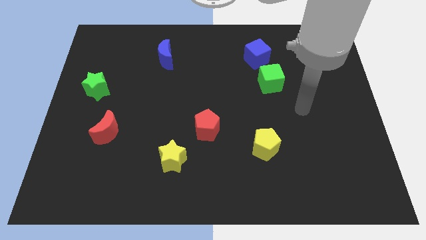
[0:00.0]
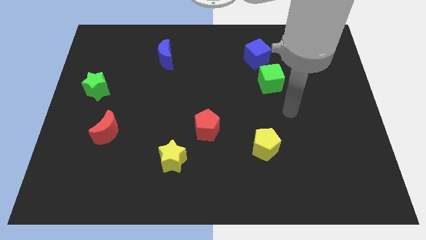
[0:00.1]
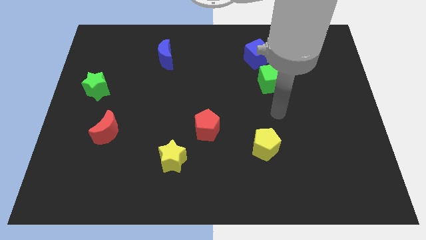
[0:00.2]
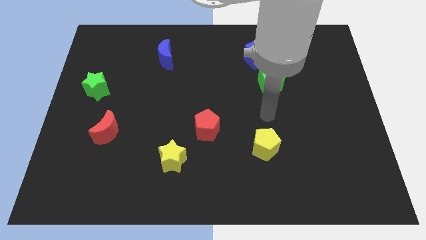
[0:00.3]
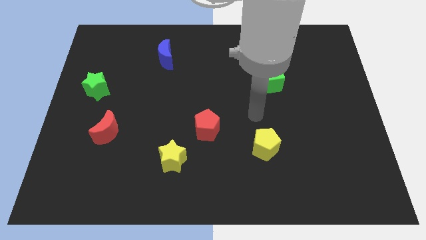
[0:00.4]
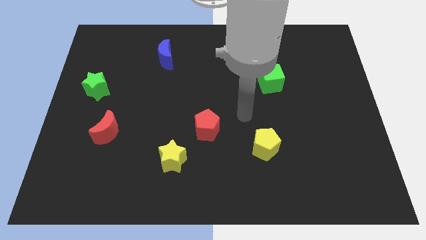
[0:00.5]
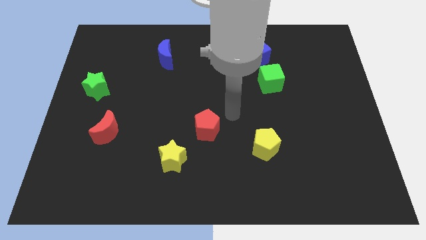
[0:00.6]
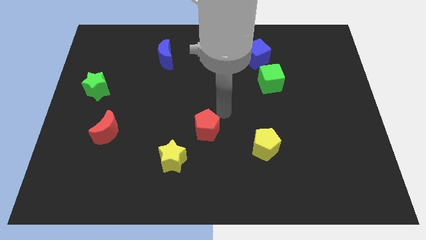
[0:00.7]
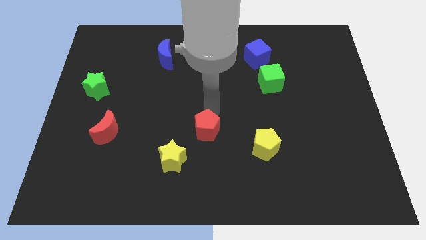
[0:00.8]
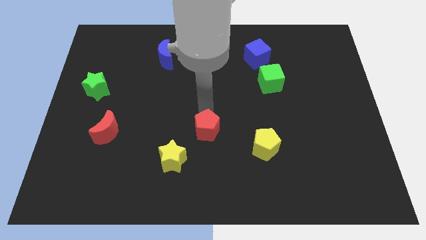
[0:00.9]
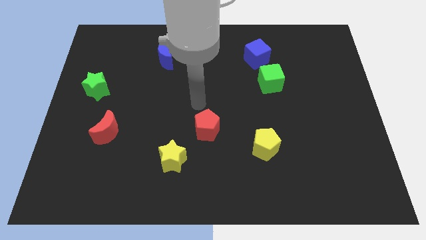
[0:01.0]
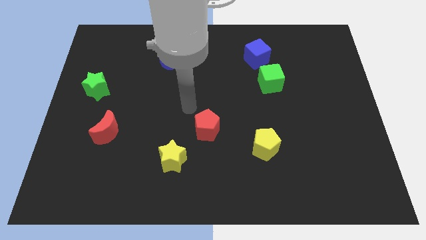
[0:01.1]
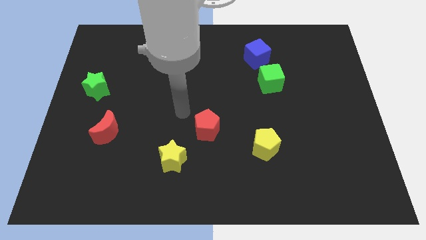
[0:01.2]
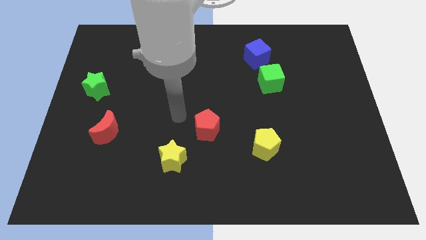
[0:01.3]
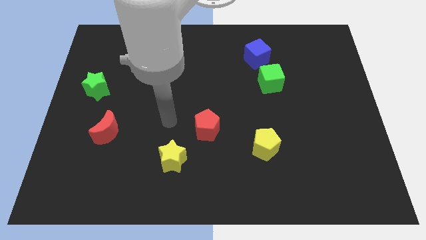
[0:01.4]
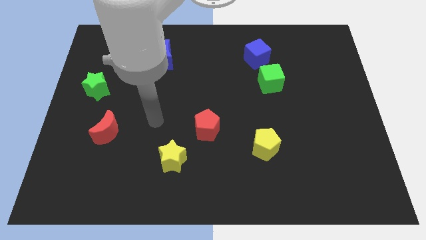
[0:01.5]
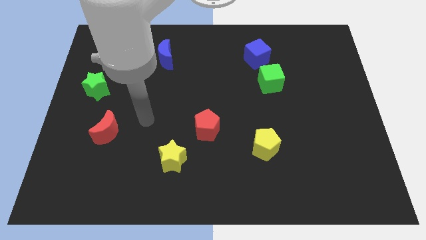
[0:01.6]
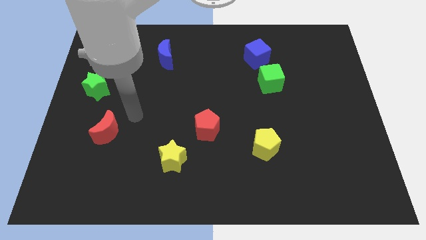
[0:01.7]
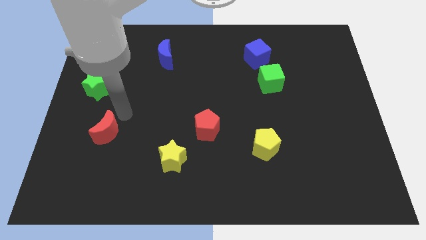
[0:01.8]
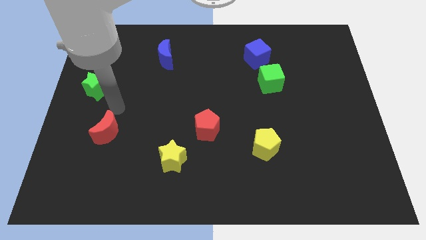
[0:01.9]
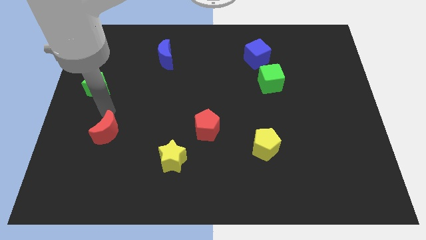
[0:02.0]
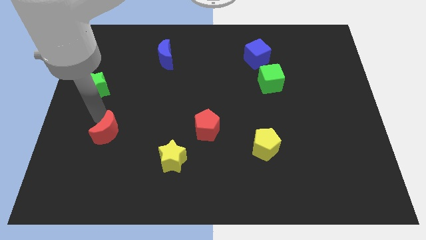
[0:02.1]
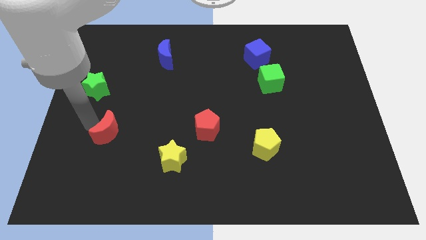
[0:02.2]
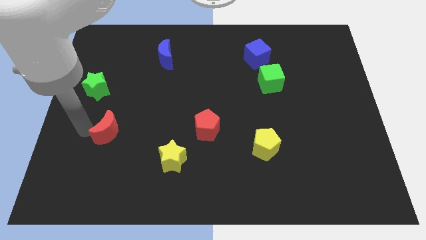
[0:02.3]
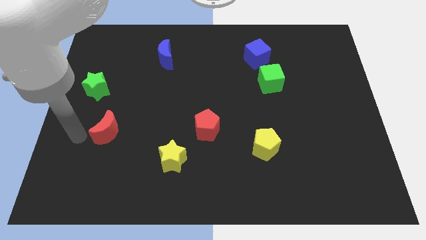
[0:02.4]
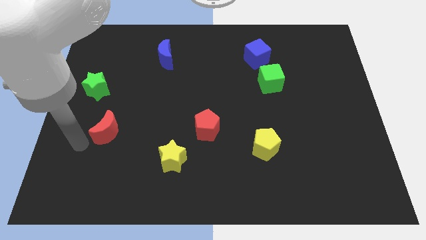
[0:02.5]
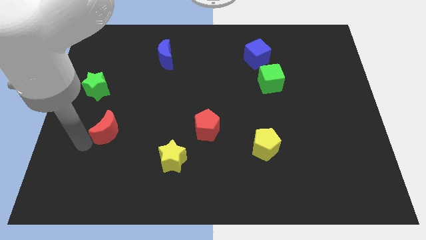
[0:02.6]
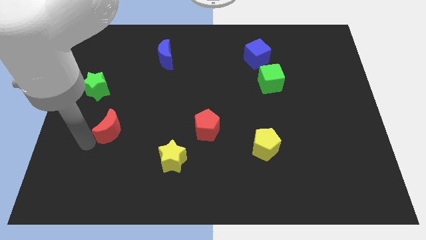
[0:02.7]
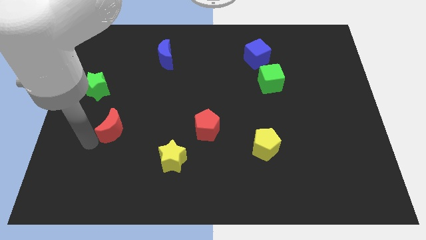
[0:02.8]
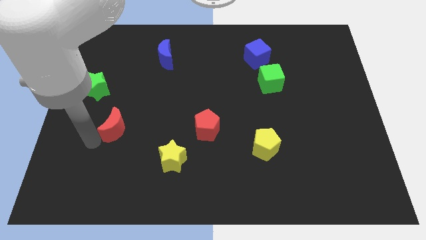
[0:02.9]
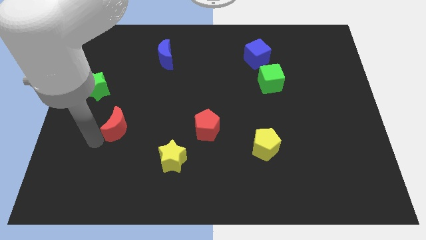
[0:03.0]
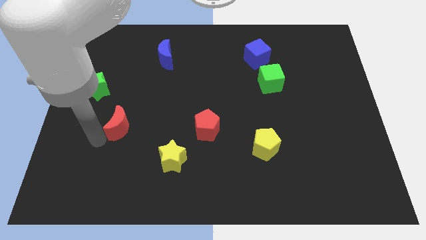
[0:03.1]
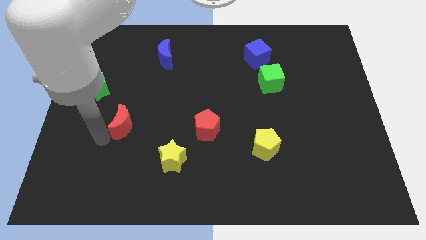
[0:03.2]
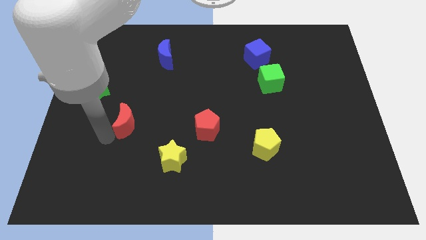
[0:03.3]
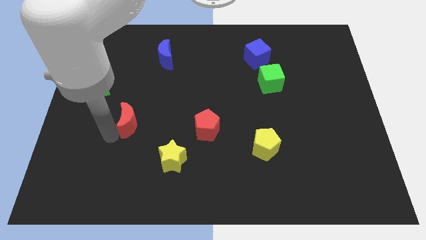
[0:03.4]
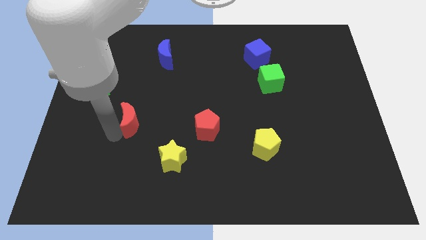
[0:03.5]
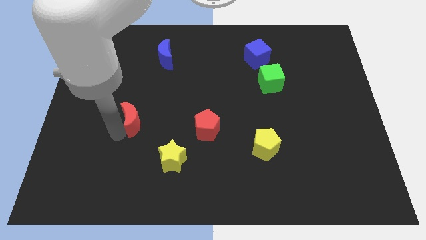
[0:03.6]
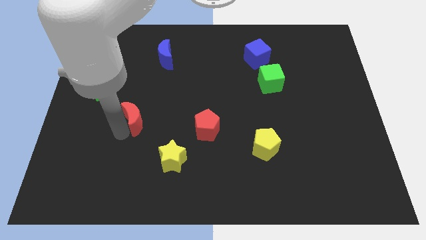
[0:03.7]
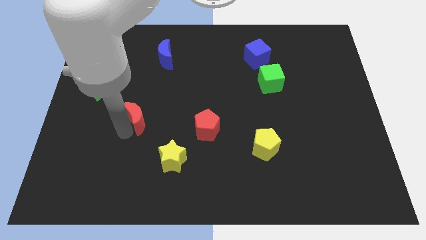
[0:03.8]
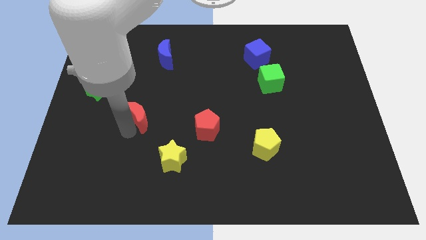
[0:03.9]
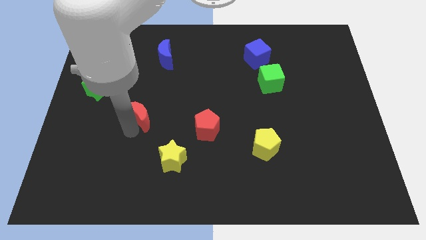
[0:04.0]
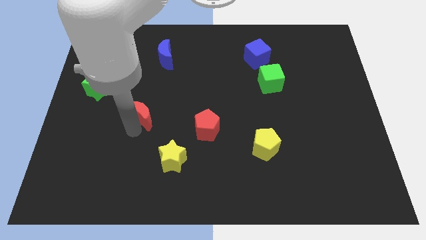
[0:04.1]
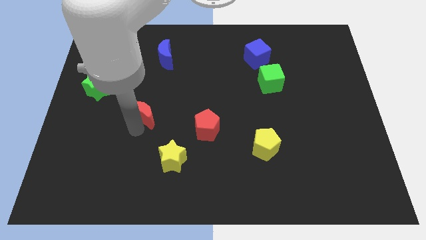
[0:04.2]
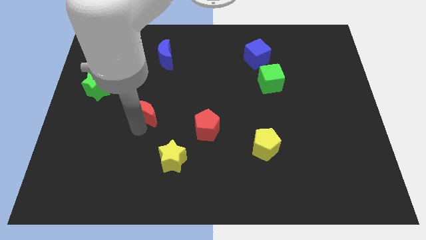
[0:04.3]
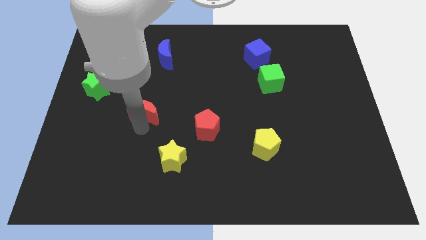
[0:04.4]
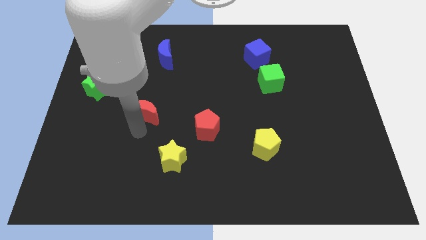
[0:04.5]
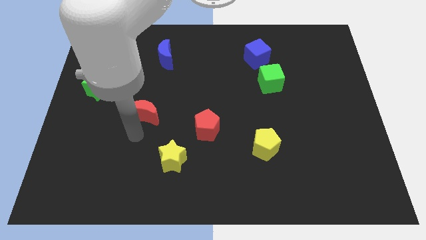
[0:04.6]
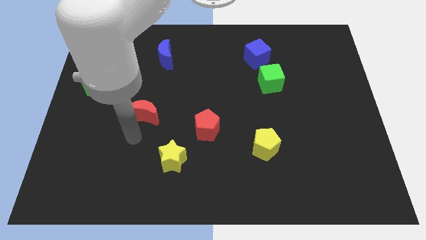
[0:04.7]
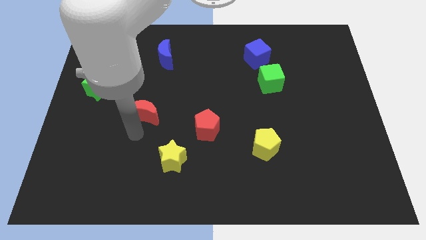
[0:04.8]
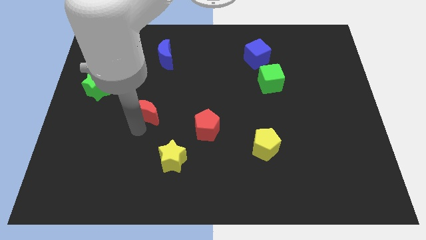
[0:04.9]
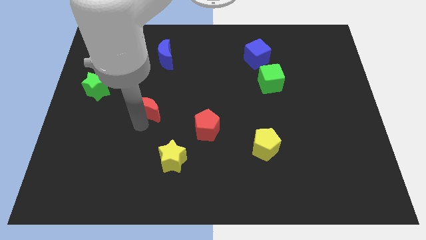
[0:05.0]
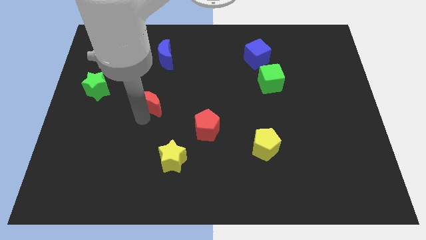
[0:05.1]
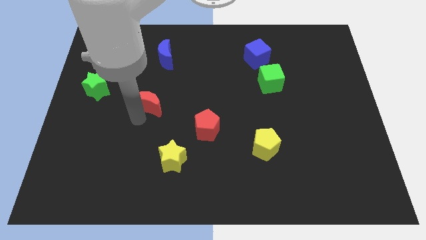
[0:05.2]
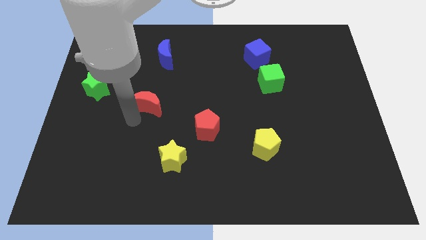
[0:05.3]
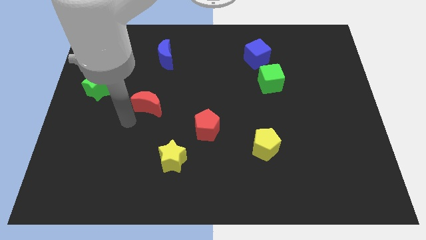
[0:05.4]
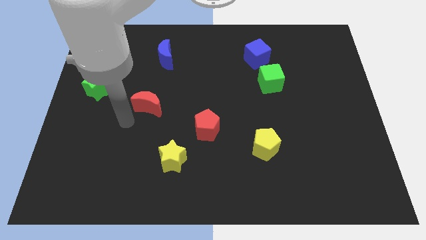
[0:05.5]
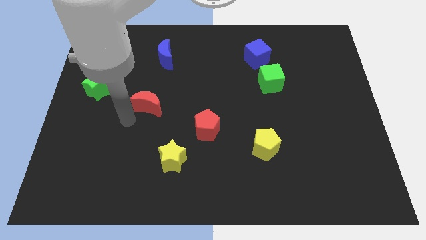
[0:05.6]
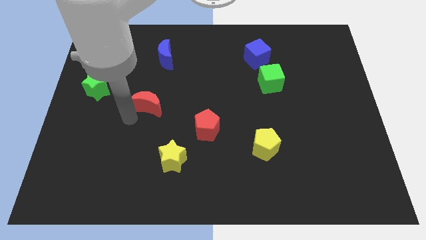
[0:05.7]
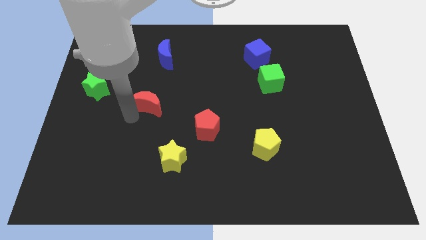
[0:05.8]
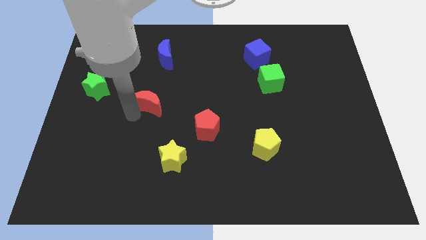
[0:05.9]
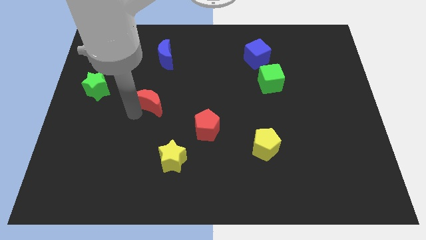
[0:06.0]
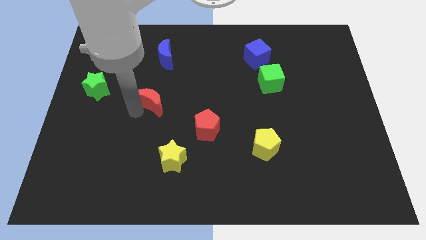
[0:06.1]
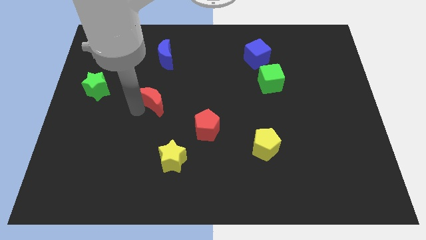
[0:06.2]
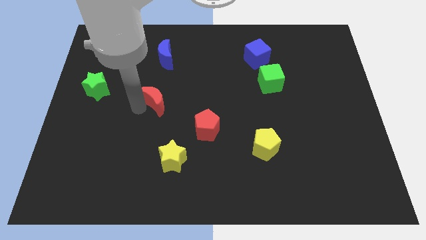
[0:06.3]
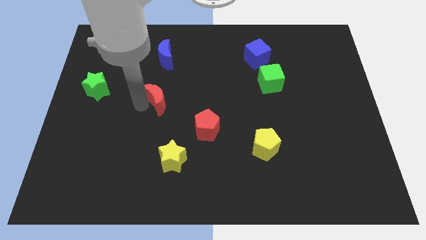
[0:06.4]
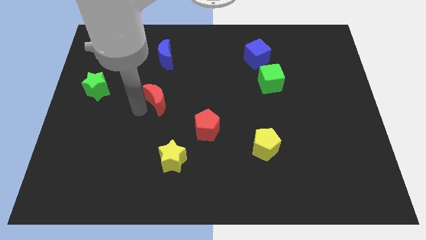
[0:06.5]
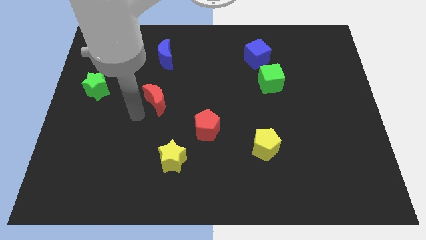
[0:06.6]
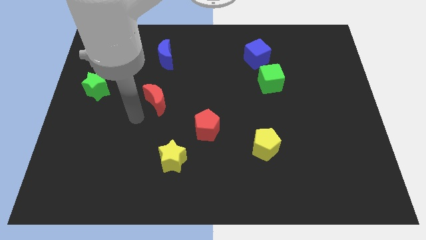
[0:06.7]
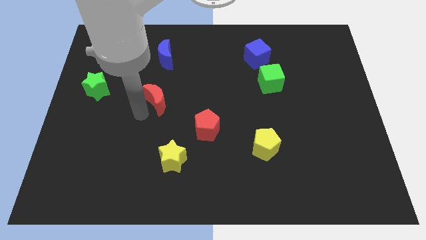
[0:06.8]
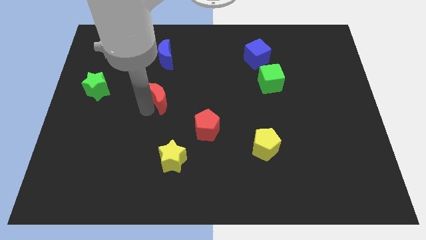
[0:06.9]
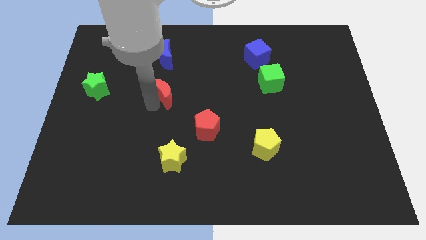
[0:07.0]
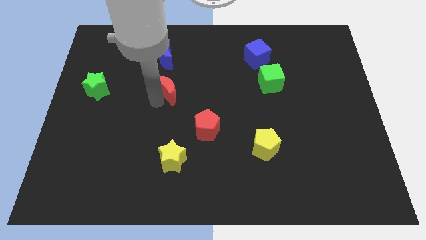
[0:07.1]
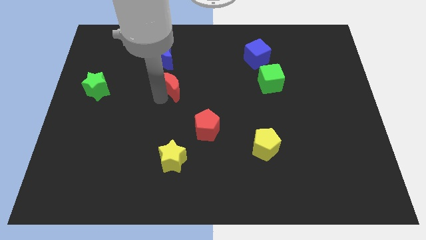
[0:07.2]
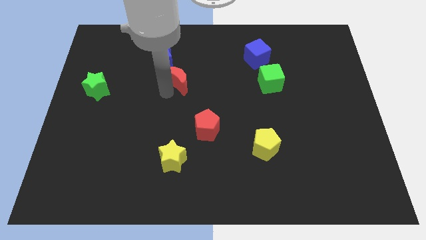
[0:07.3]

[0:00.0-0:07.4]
slide the red moon upwards and right diagonally

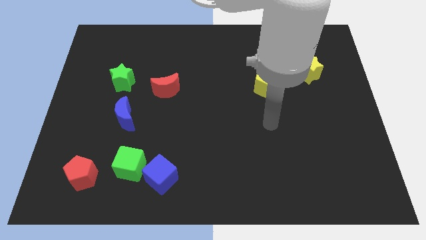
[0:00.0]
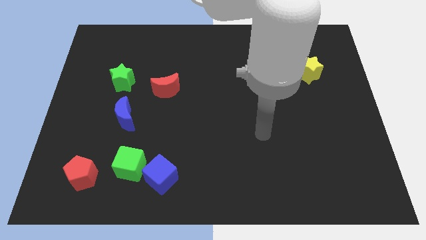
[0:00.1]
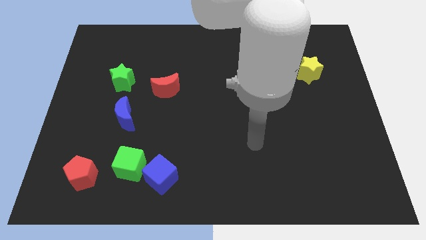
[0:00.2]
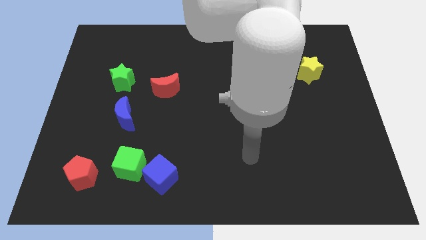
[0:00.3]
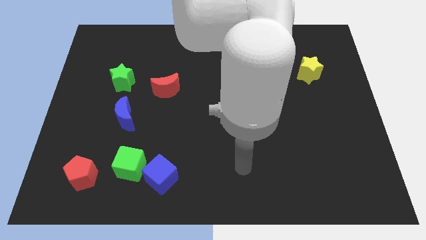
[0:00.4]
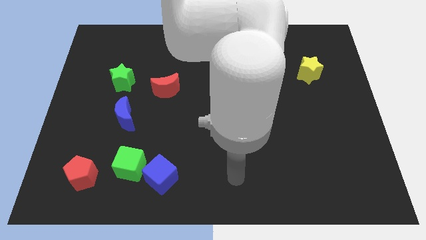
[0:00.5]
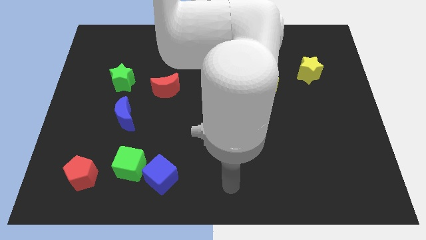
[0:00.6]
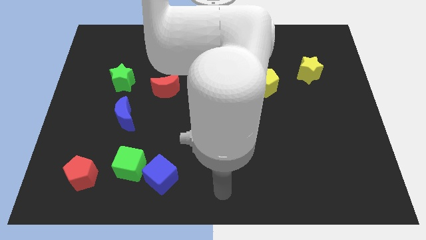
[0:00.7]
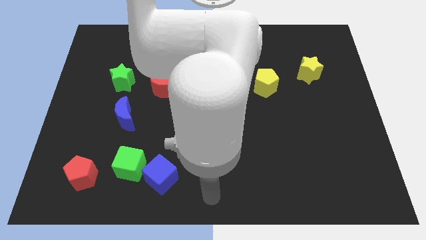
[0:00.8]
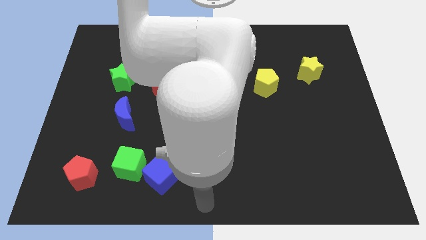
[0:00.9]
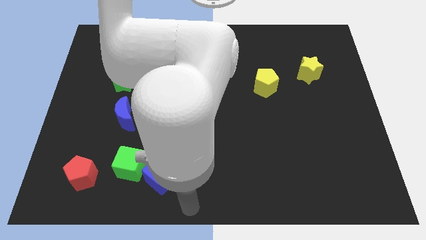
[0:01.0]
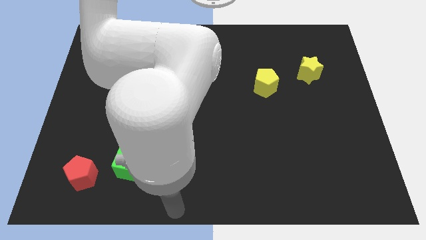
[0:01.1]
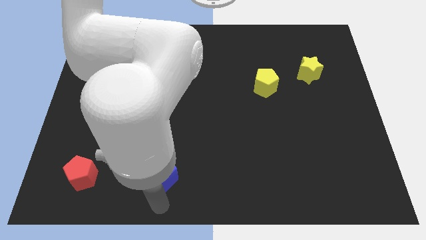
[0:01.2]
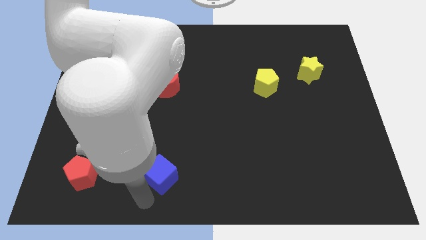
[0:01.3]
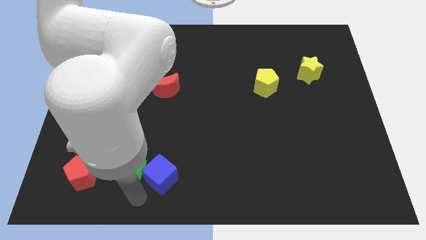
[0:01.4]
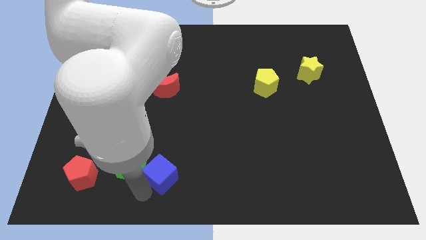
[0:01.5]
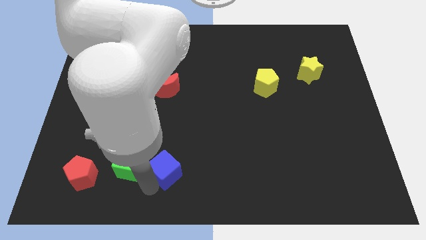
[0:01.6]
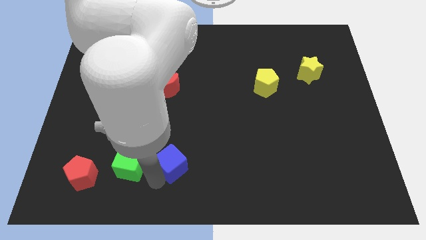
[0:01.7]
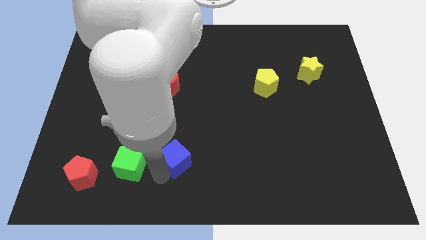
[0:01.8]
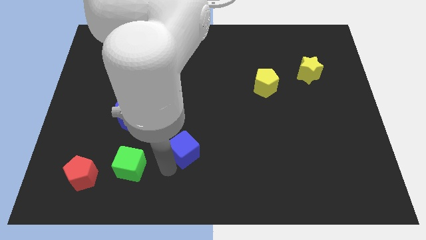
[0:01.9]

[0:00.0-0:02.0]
slightly push the blue cube diagonally up and right
